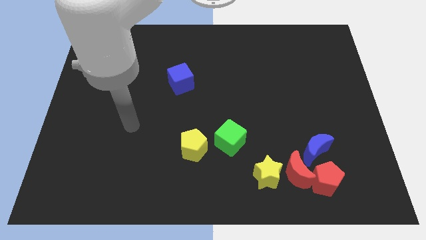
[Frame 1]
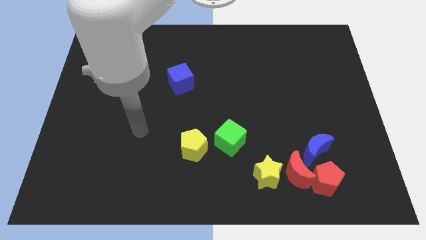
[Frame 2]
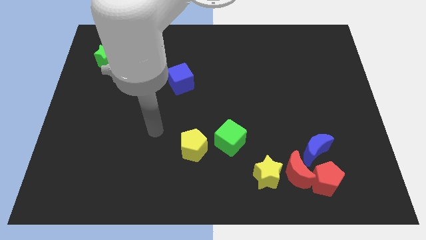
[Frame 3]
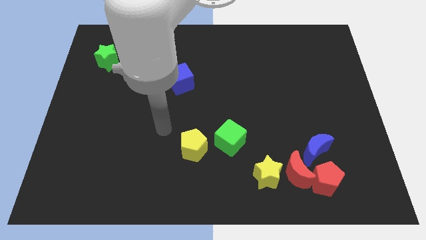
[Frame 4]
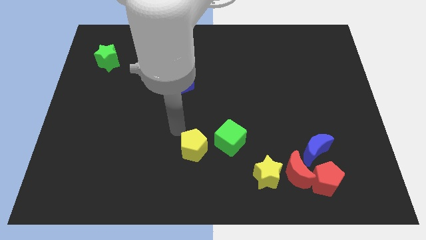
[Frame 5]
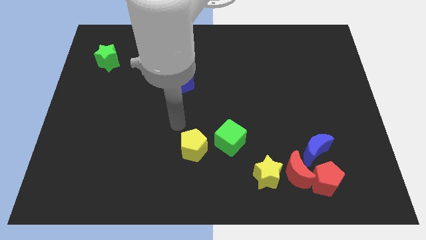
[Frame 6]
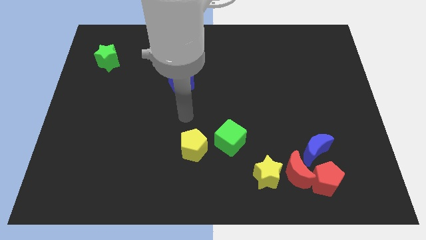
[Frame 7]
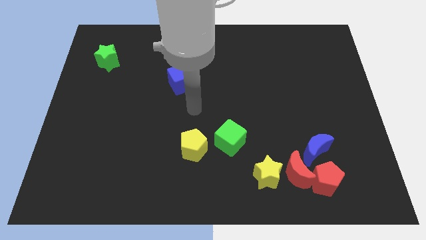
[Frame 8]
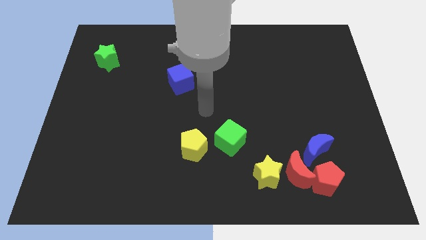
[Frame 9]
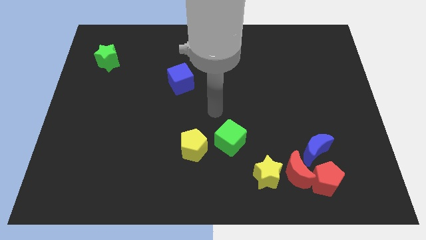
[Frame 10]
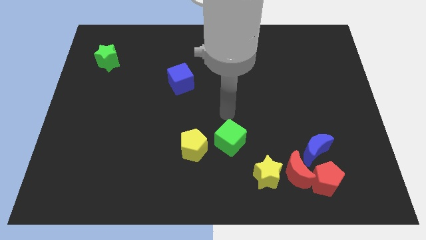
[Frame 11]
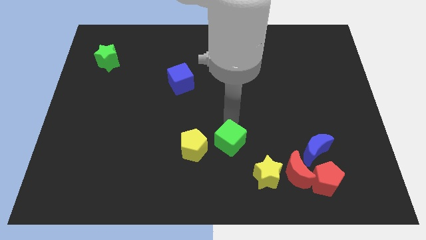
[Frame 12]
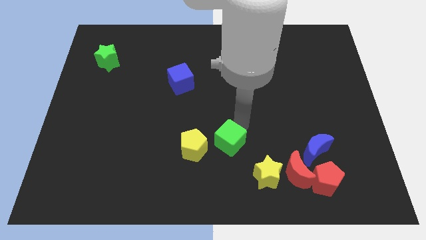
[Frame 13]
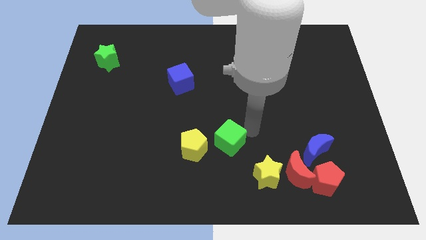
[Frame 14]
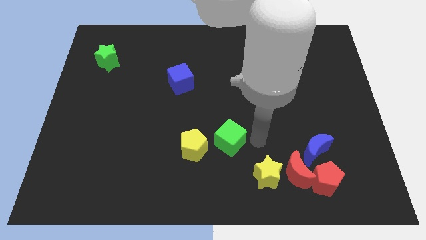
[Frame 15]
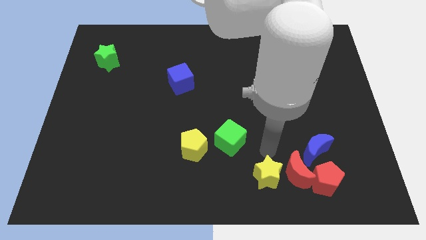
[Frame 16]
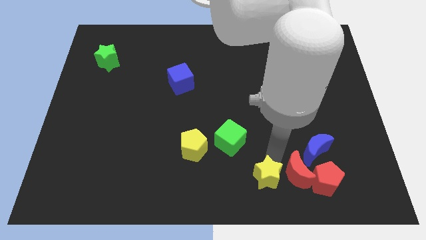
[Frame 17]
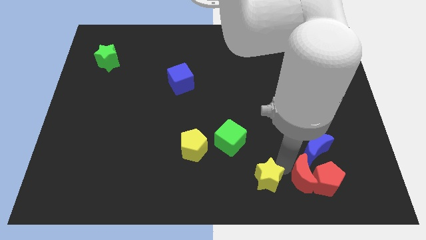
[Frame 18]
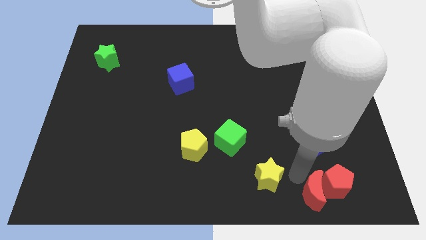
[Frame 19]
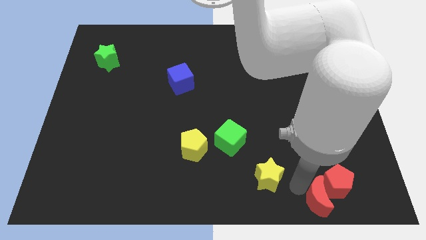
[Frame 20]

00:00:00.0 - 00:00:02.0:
move the yellow star away from the red moon

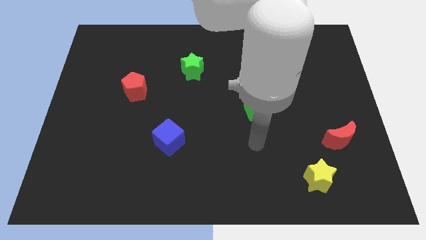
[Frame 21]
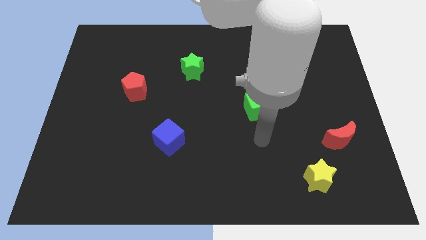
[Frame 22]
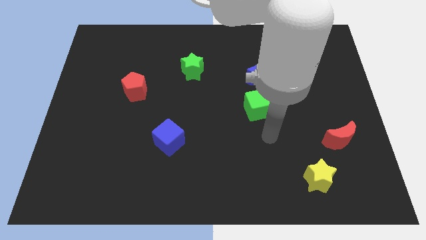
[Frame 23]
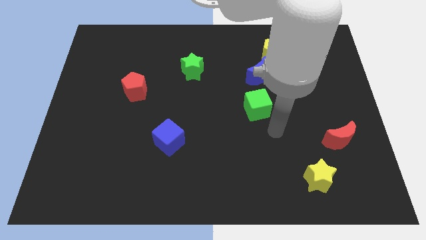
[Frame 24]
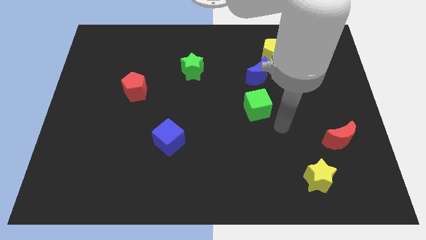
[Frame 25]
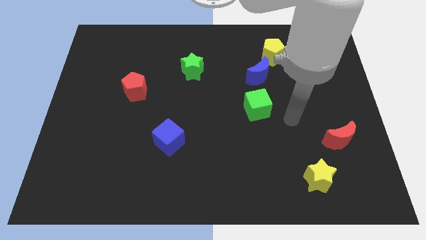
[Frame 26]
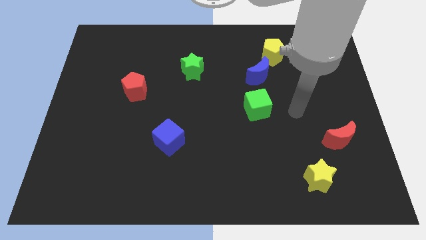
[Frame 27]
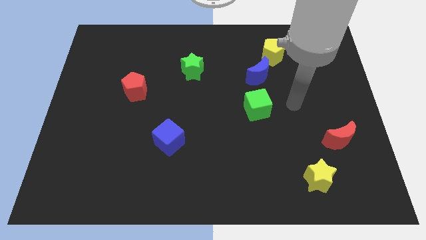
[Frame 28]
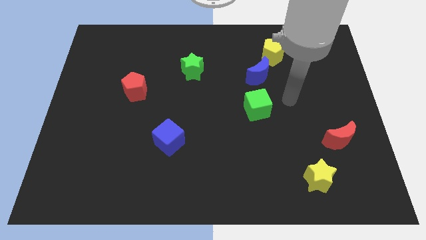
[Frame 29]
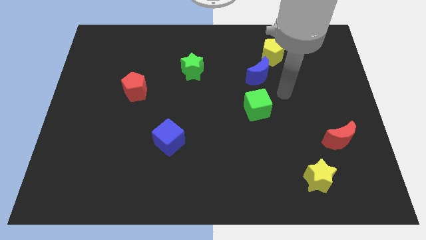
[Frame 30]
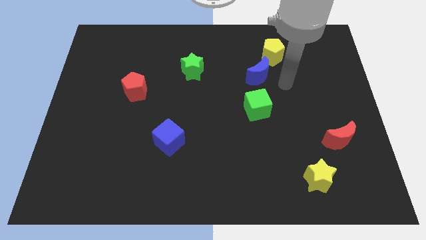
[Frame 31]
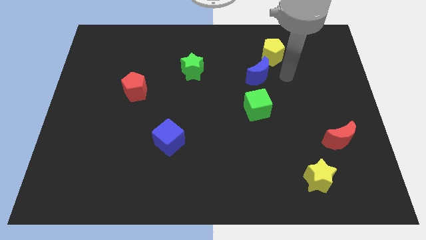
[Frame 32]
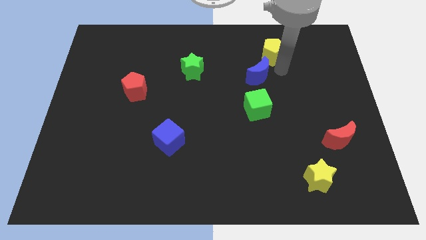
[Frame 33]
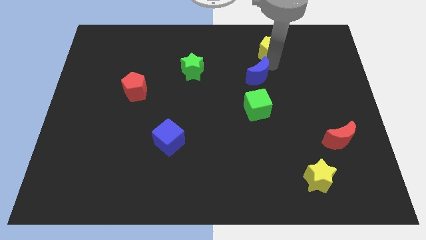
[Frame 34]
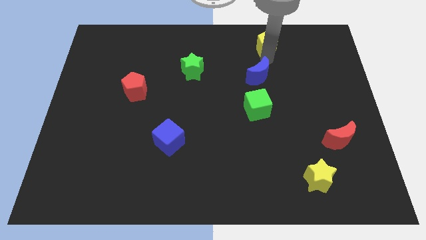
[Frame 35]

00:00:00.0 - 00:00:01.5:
pull the blue moon apart from the yellow pentagon

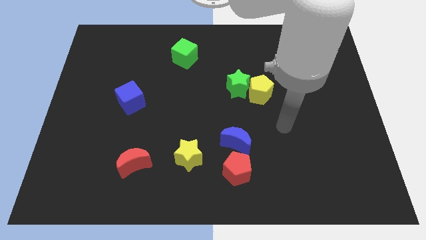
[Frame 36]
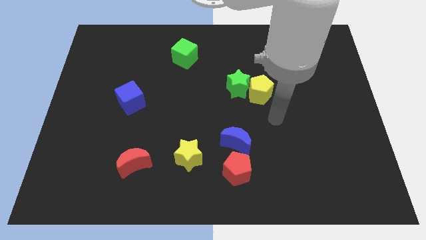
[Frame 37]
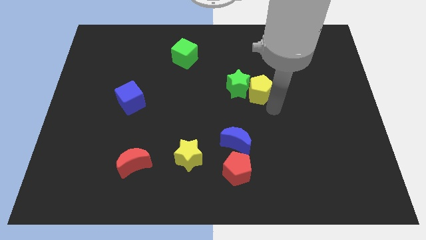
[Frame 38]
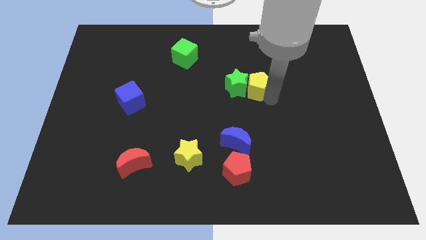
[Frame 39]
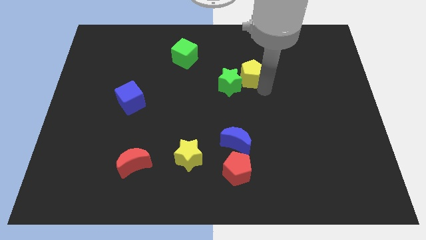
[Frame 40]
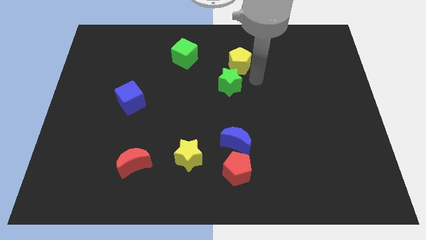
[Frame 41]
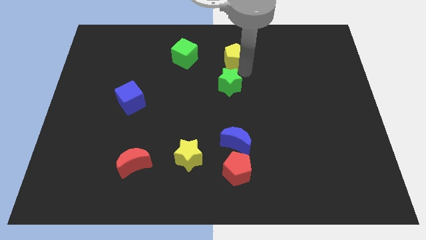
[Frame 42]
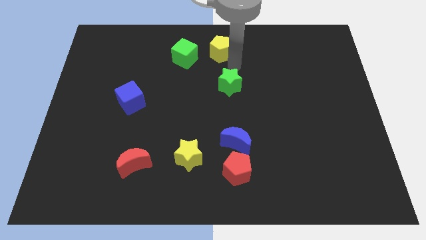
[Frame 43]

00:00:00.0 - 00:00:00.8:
separate the green star from the yellow pentagon

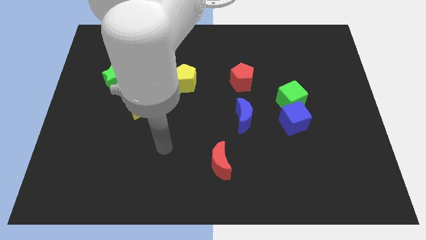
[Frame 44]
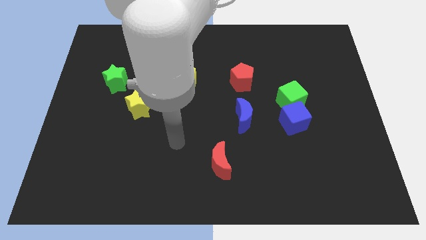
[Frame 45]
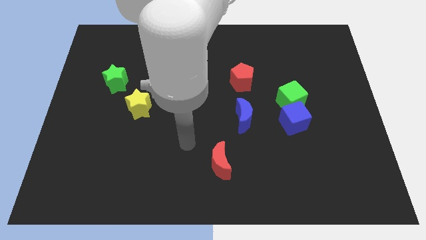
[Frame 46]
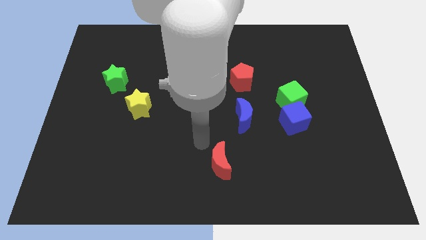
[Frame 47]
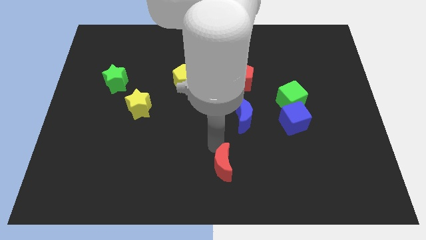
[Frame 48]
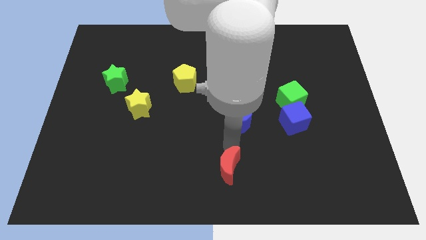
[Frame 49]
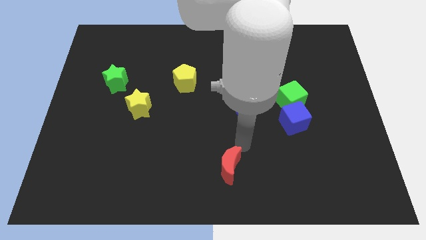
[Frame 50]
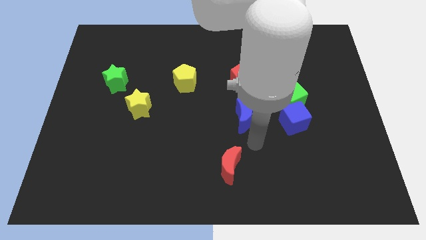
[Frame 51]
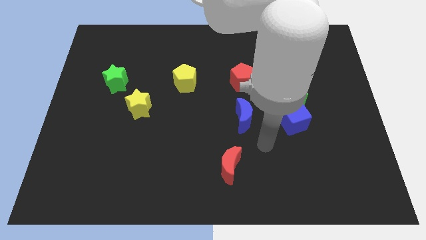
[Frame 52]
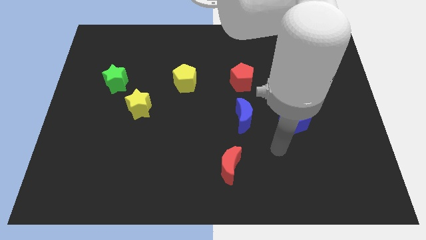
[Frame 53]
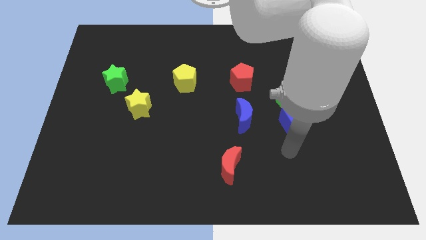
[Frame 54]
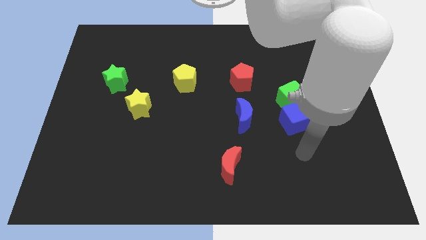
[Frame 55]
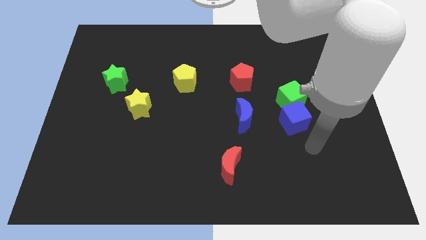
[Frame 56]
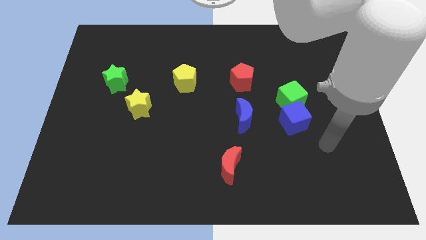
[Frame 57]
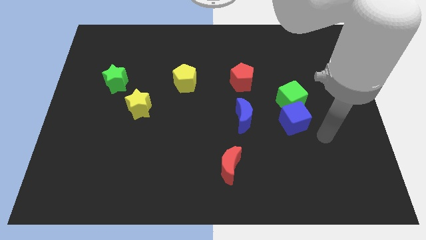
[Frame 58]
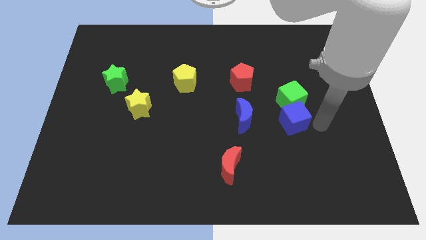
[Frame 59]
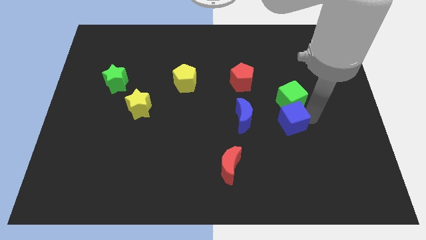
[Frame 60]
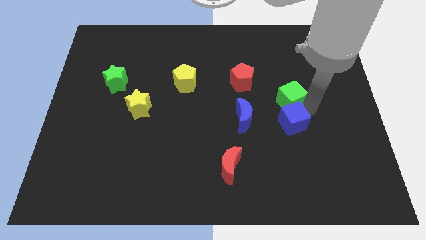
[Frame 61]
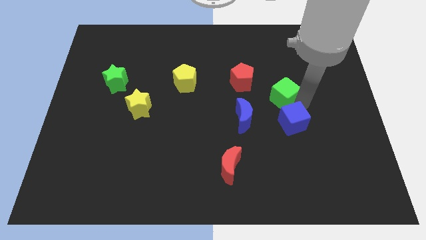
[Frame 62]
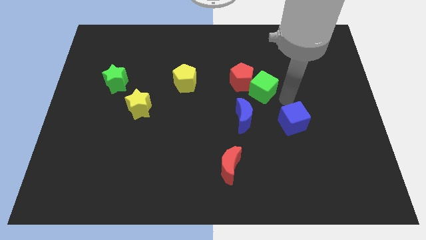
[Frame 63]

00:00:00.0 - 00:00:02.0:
separate the blue cube from the green cube

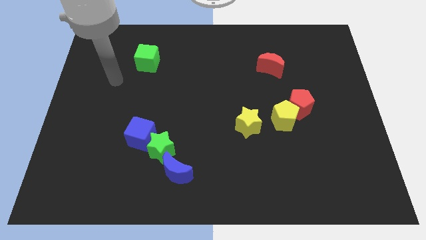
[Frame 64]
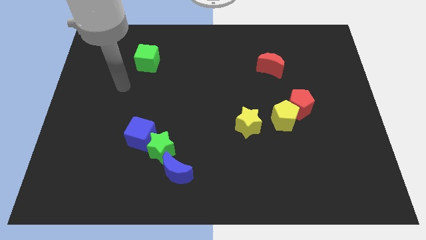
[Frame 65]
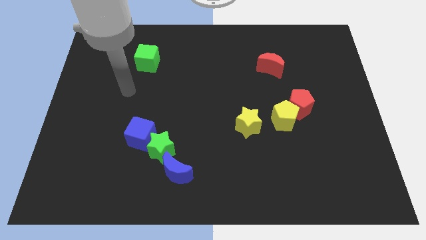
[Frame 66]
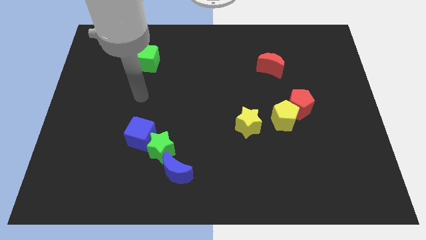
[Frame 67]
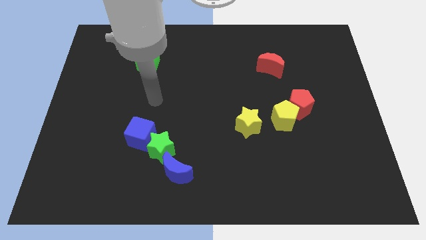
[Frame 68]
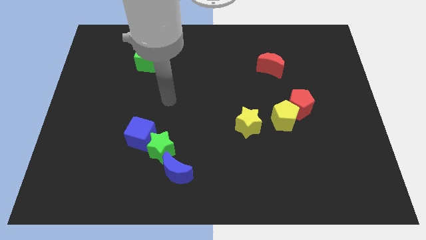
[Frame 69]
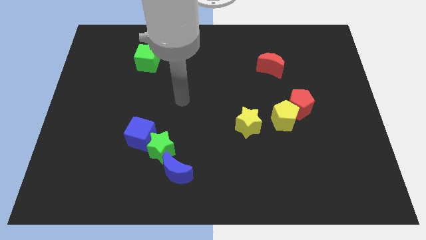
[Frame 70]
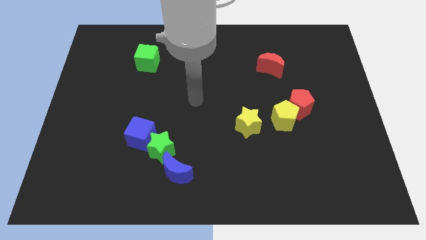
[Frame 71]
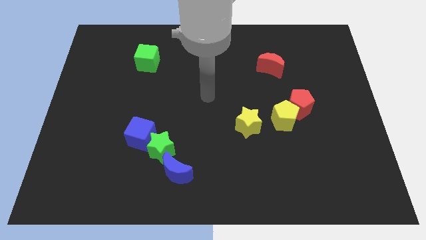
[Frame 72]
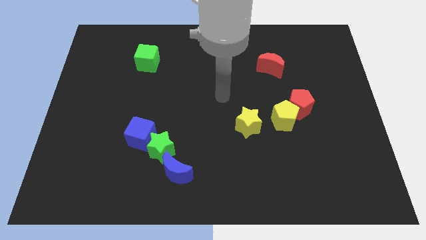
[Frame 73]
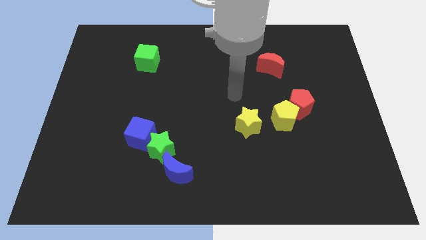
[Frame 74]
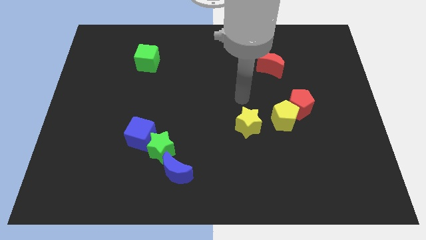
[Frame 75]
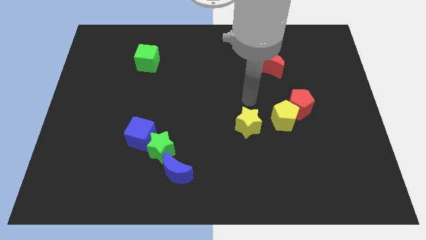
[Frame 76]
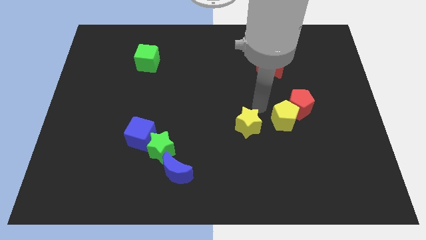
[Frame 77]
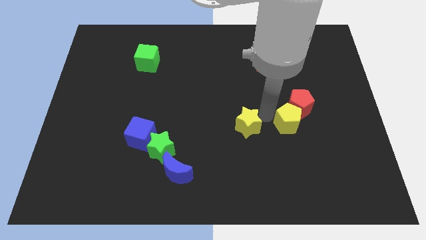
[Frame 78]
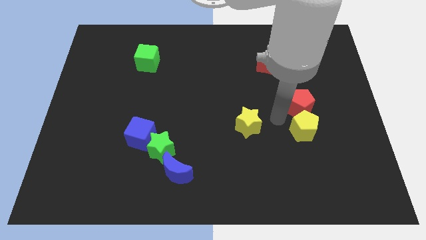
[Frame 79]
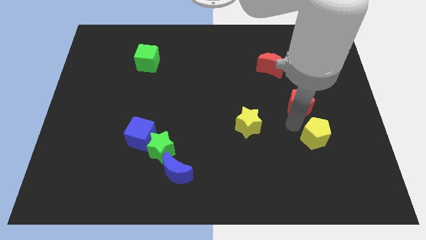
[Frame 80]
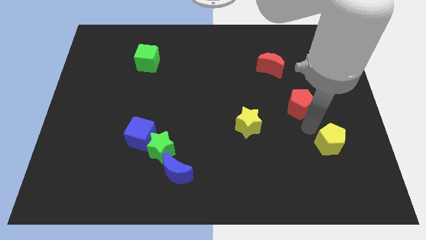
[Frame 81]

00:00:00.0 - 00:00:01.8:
separate the red pentagon from the yellow pentagon

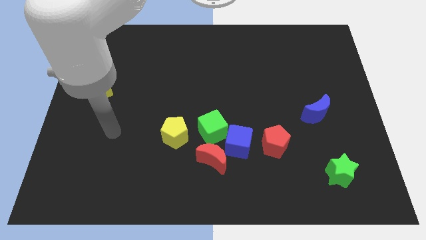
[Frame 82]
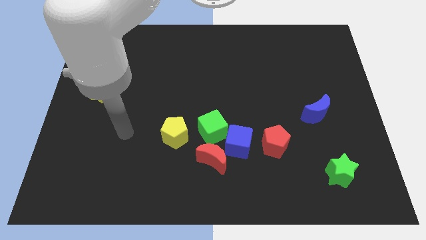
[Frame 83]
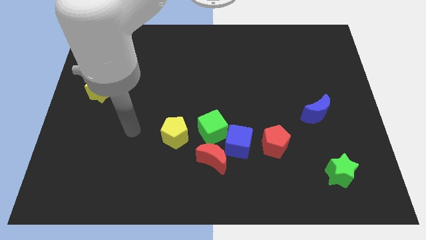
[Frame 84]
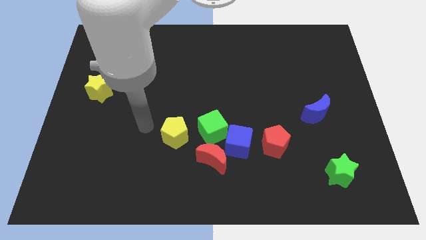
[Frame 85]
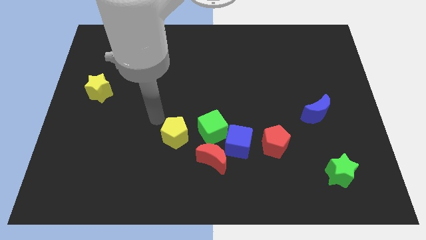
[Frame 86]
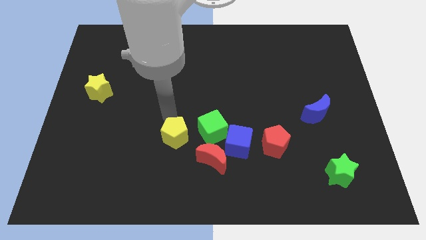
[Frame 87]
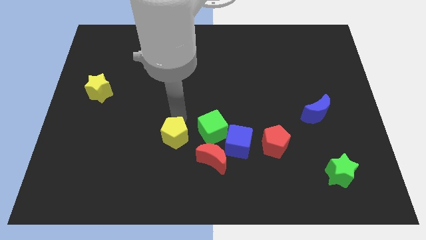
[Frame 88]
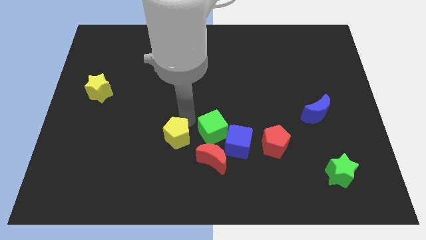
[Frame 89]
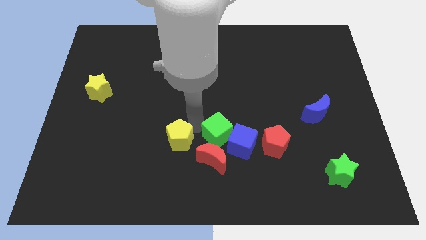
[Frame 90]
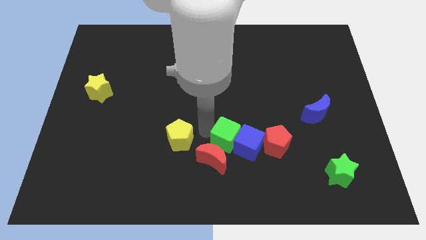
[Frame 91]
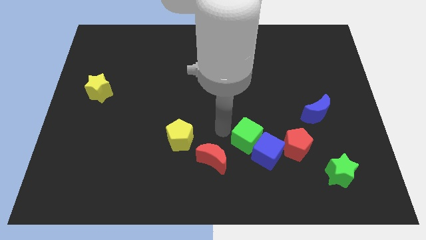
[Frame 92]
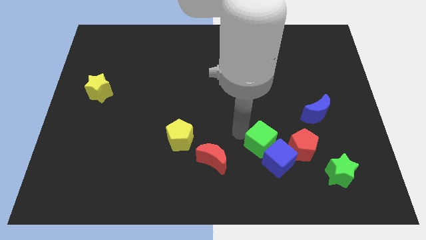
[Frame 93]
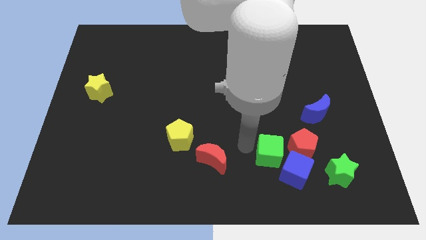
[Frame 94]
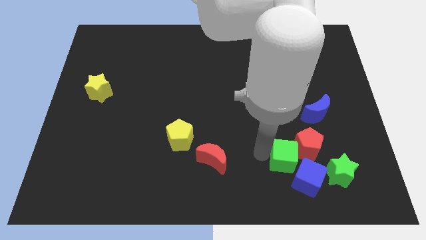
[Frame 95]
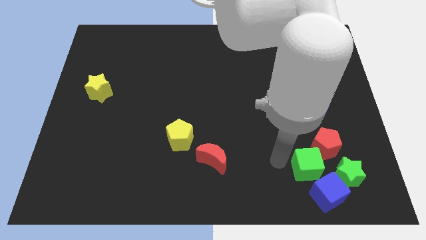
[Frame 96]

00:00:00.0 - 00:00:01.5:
separate the blue cube from the clump
